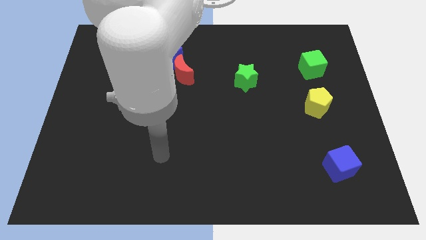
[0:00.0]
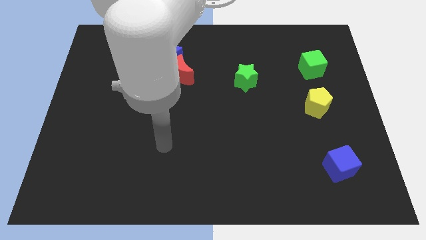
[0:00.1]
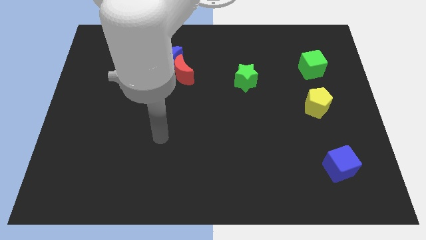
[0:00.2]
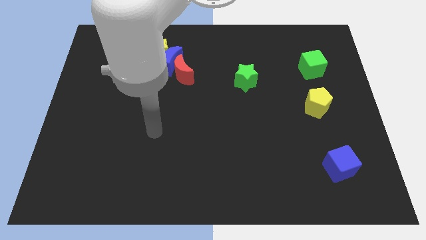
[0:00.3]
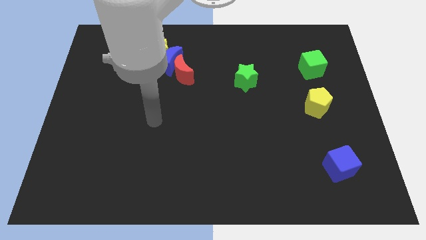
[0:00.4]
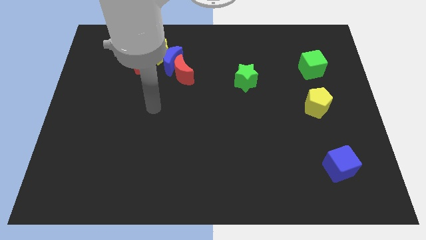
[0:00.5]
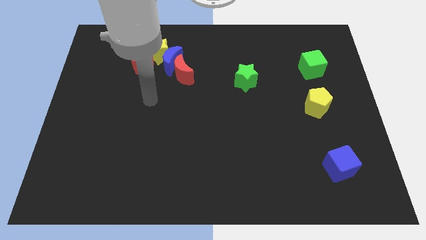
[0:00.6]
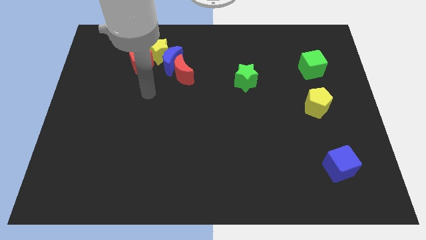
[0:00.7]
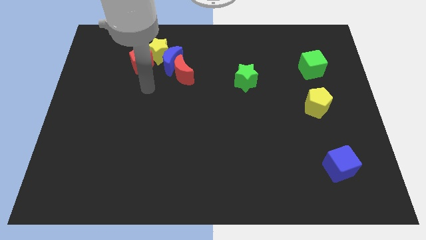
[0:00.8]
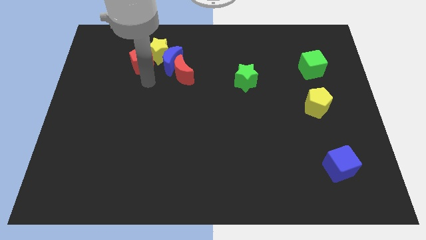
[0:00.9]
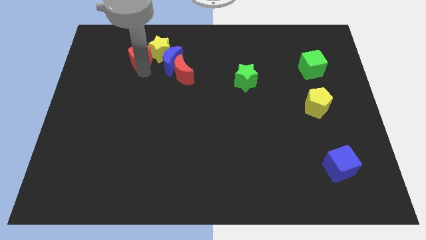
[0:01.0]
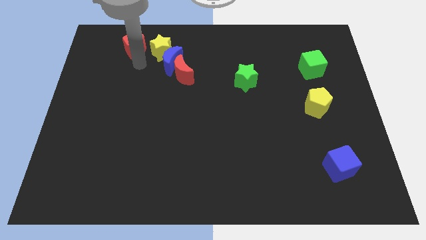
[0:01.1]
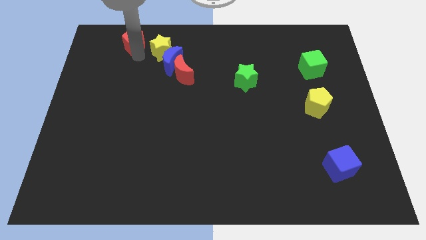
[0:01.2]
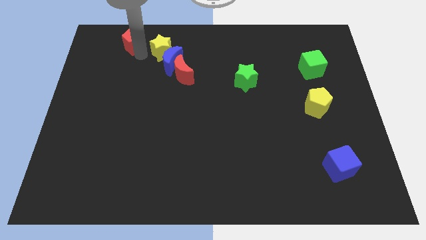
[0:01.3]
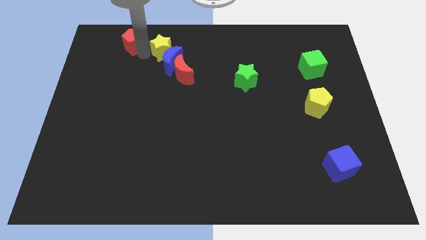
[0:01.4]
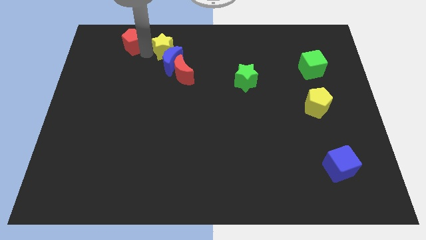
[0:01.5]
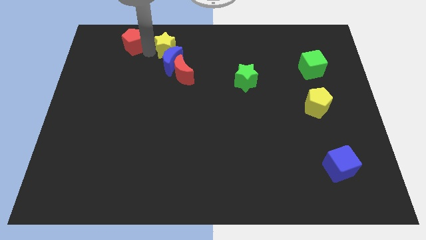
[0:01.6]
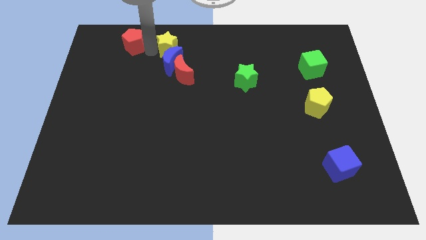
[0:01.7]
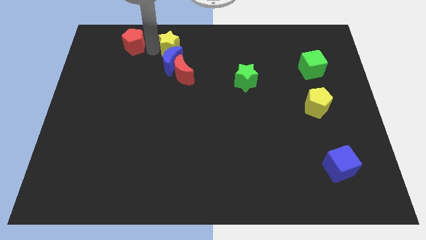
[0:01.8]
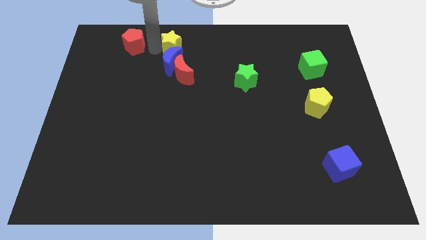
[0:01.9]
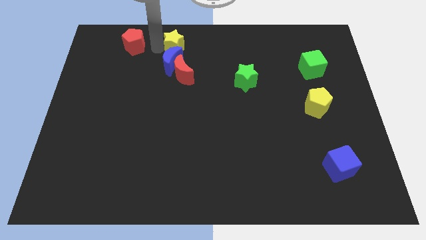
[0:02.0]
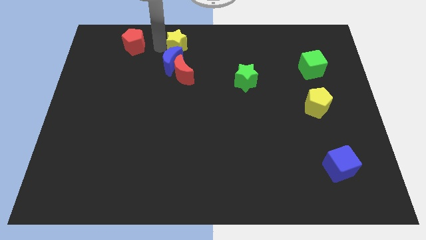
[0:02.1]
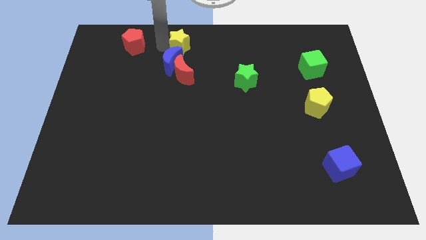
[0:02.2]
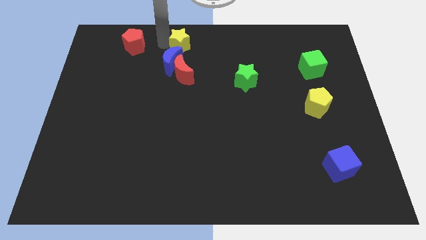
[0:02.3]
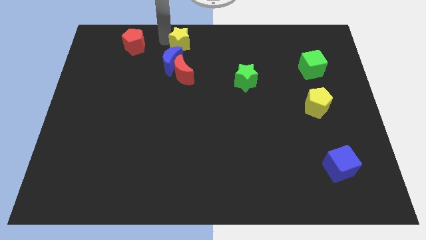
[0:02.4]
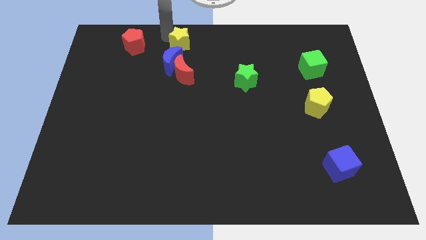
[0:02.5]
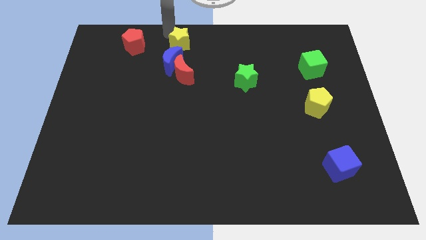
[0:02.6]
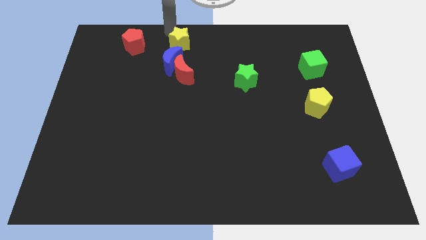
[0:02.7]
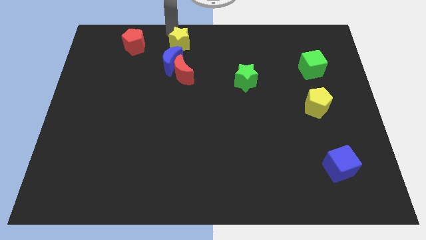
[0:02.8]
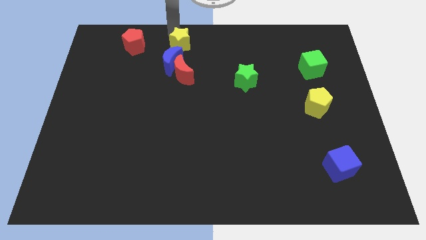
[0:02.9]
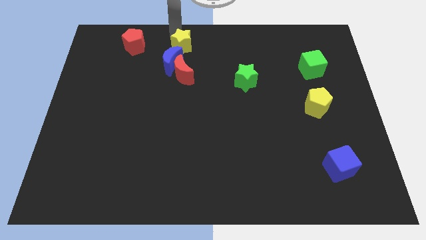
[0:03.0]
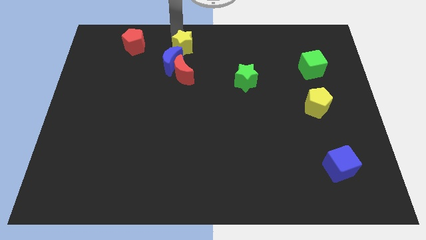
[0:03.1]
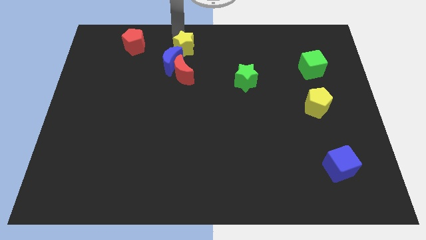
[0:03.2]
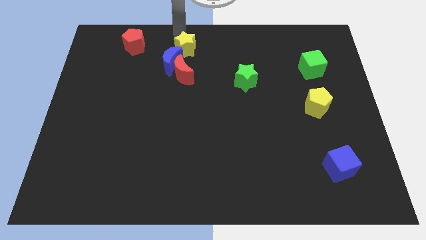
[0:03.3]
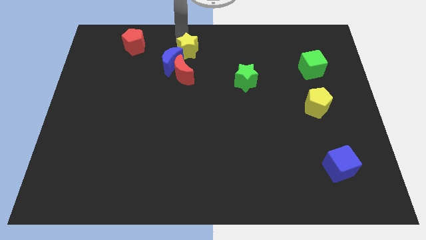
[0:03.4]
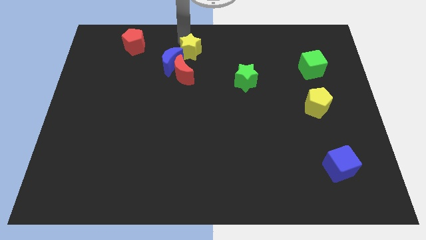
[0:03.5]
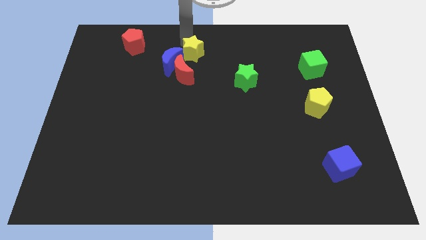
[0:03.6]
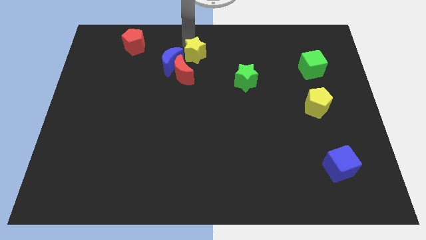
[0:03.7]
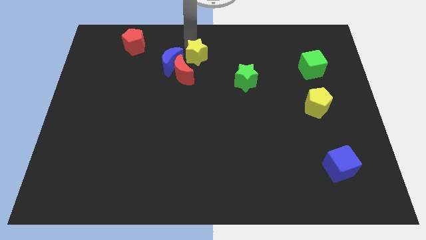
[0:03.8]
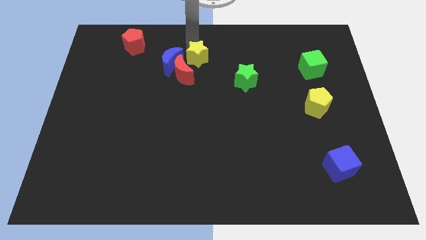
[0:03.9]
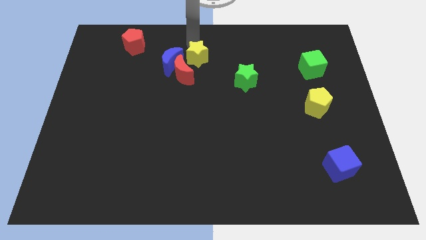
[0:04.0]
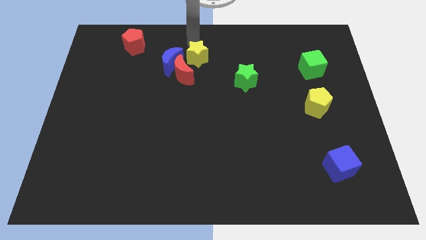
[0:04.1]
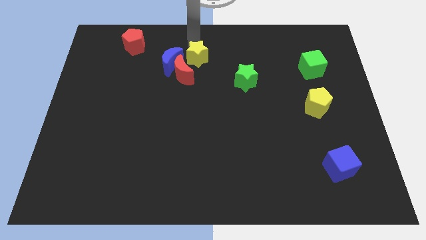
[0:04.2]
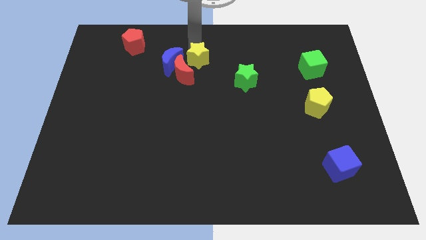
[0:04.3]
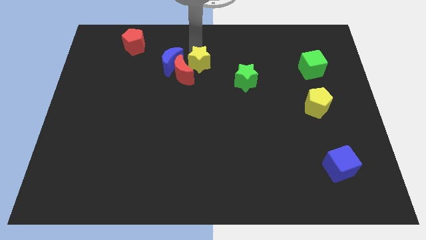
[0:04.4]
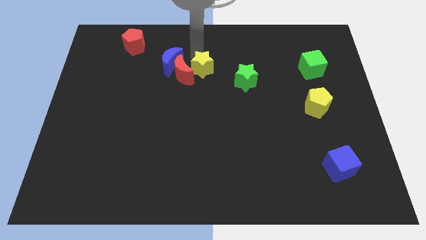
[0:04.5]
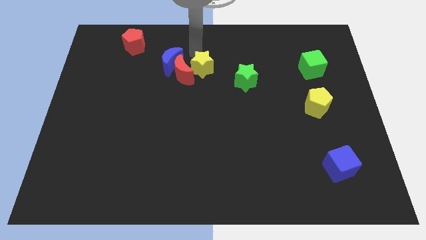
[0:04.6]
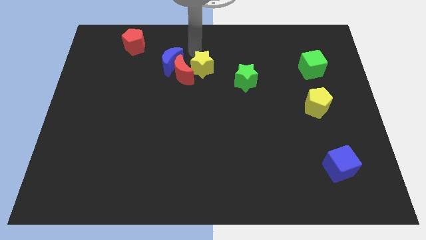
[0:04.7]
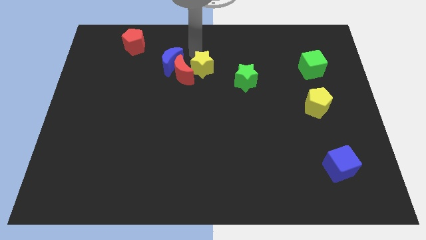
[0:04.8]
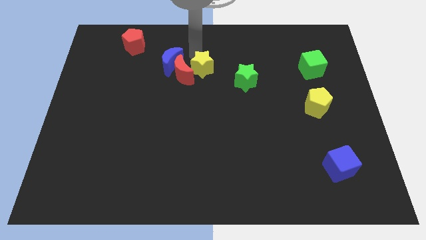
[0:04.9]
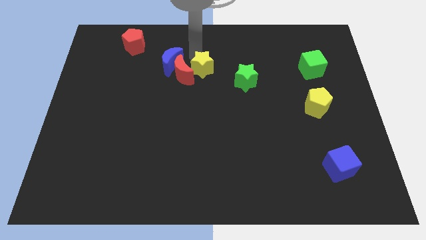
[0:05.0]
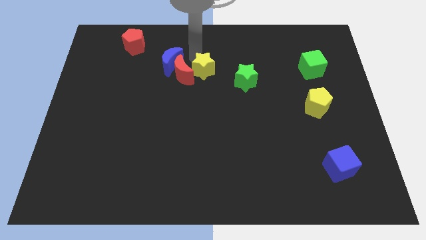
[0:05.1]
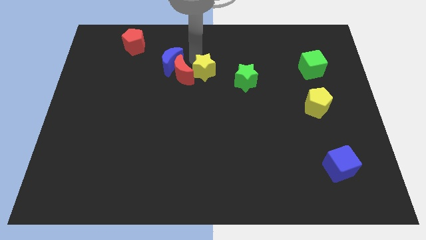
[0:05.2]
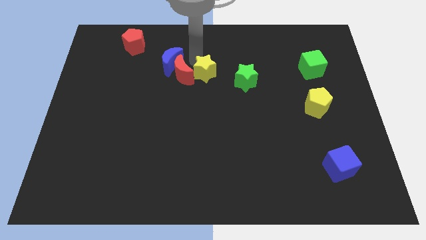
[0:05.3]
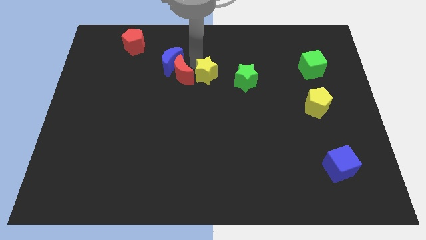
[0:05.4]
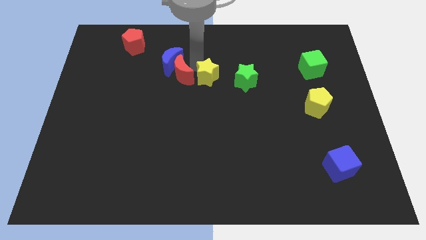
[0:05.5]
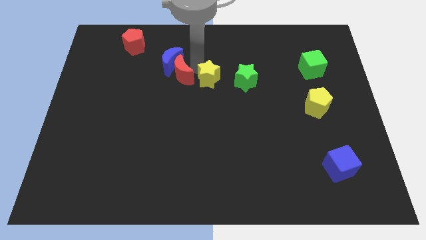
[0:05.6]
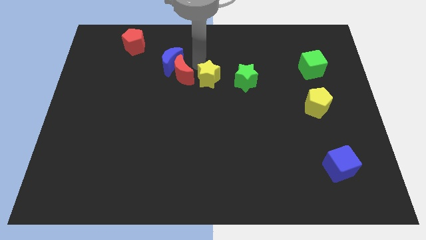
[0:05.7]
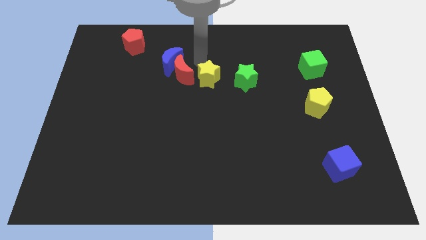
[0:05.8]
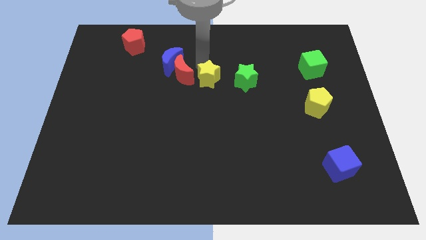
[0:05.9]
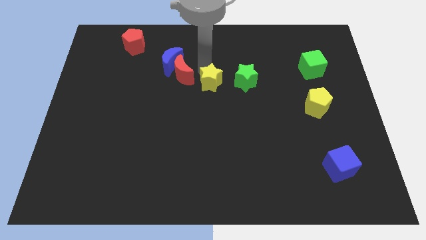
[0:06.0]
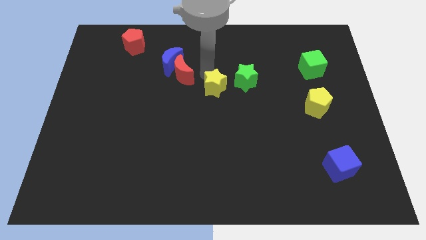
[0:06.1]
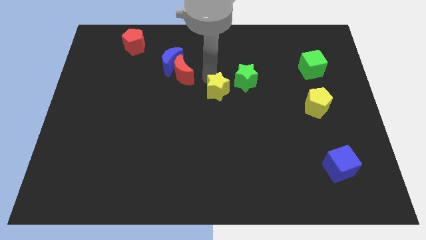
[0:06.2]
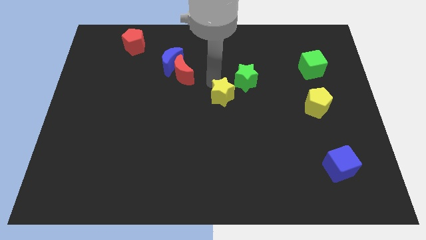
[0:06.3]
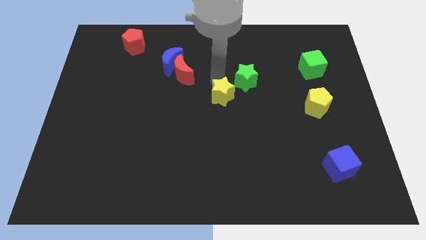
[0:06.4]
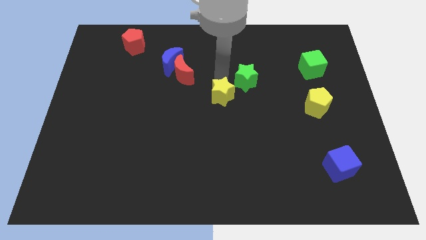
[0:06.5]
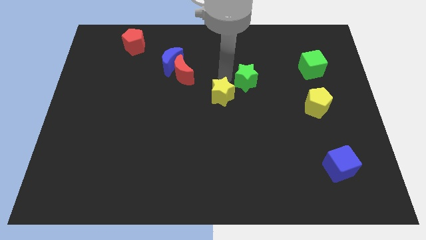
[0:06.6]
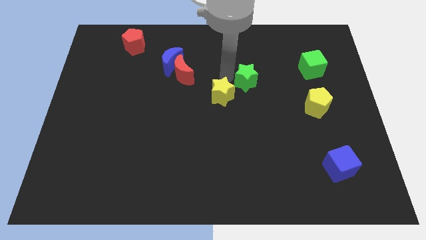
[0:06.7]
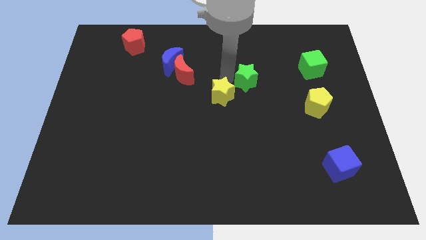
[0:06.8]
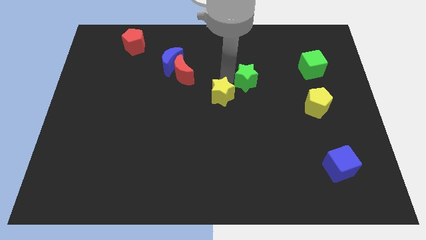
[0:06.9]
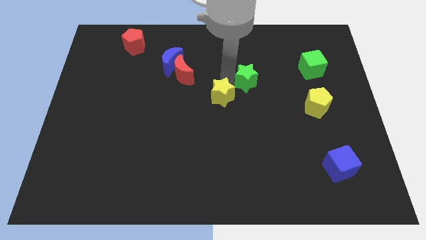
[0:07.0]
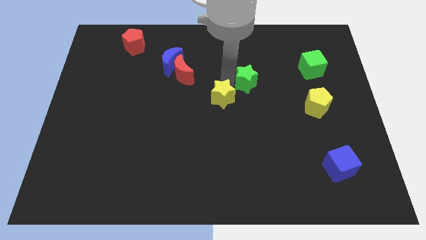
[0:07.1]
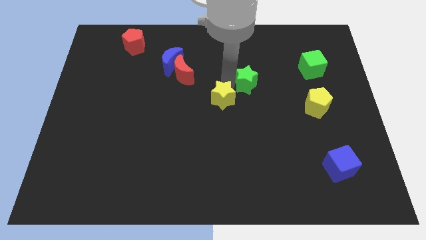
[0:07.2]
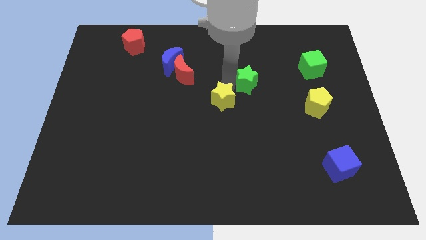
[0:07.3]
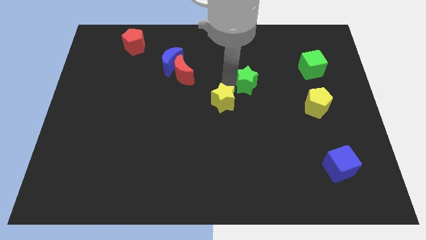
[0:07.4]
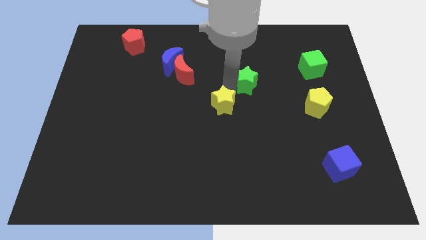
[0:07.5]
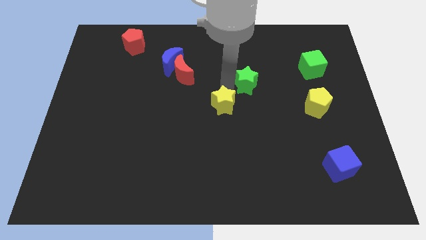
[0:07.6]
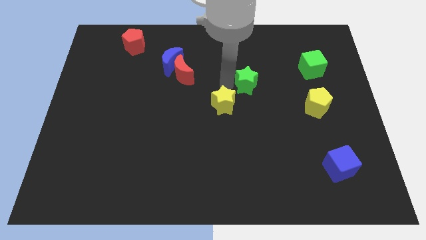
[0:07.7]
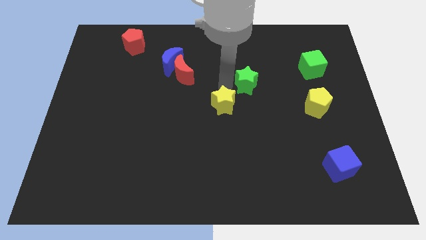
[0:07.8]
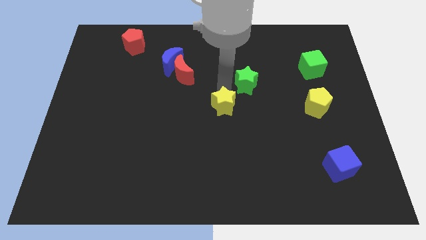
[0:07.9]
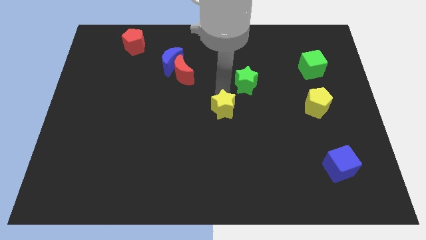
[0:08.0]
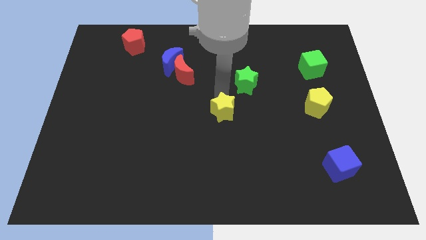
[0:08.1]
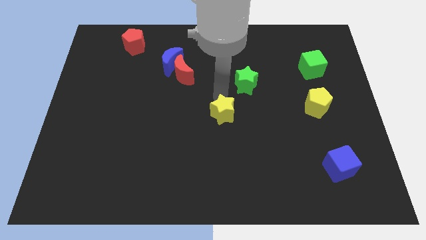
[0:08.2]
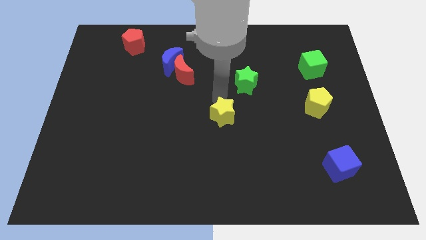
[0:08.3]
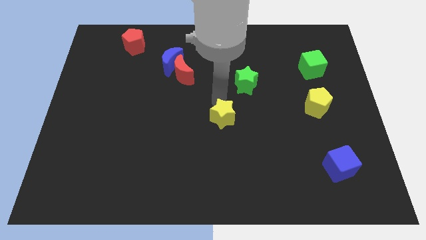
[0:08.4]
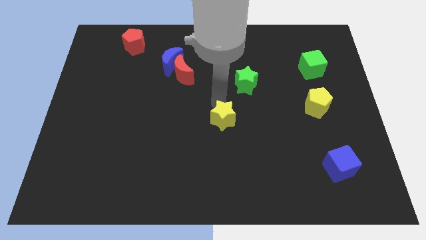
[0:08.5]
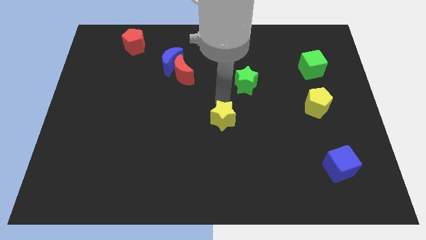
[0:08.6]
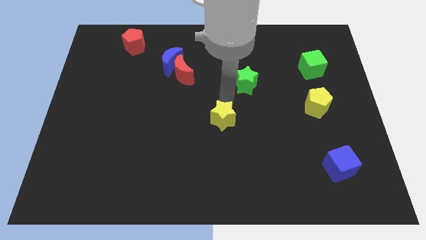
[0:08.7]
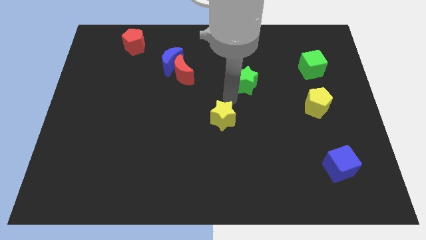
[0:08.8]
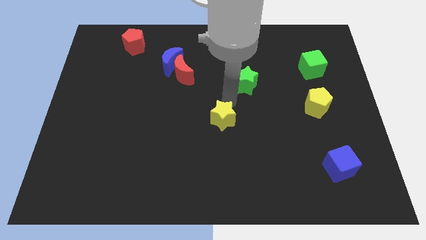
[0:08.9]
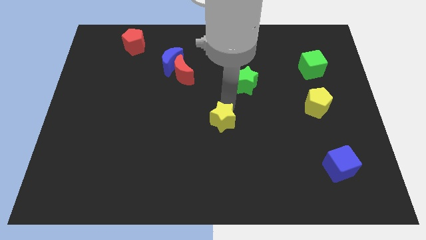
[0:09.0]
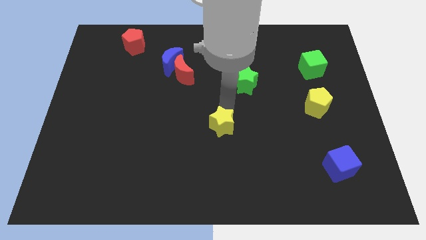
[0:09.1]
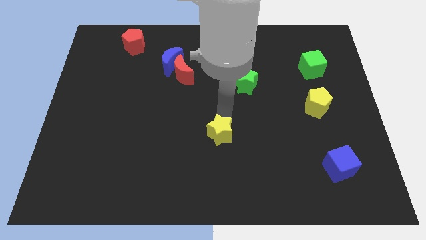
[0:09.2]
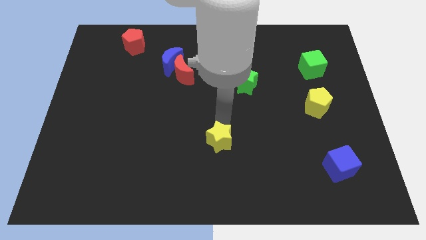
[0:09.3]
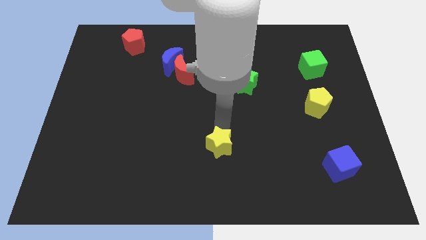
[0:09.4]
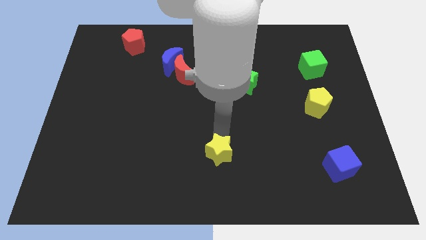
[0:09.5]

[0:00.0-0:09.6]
push the yellow star to the bottom side
